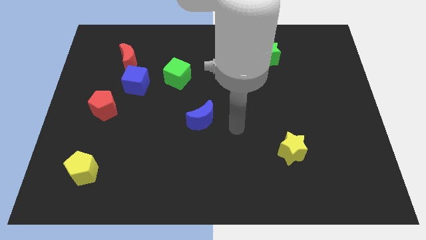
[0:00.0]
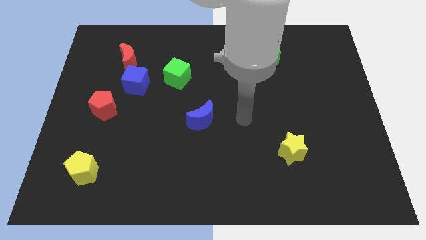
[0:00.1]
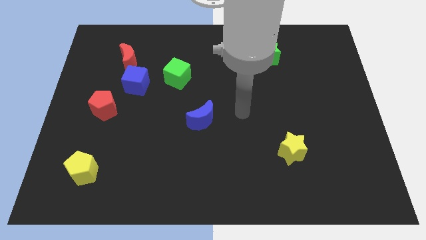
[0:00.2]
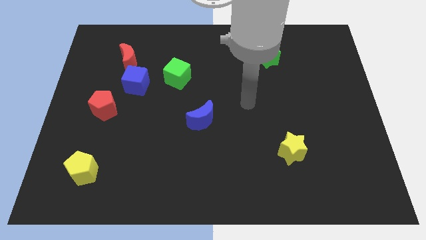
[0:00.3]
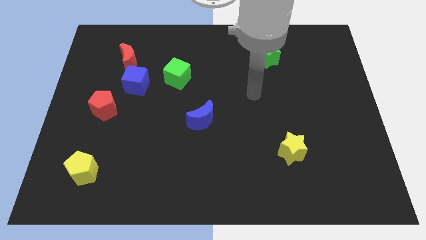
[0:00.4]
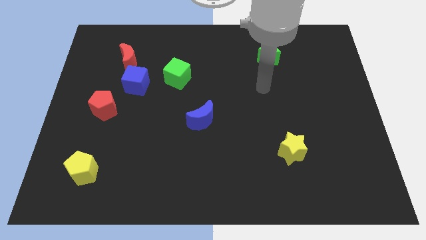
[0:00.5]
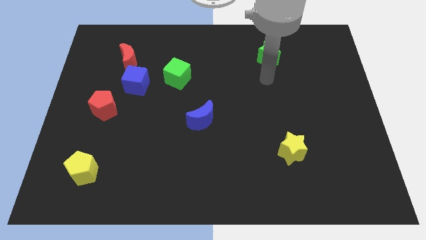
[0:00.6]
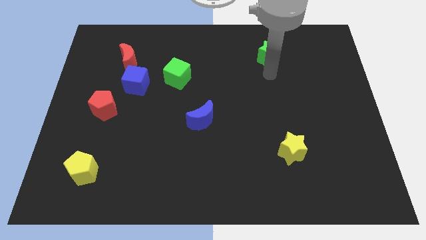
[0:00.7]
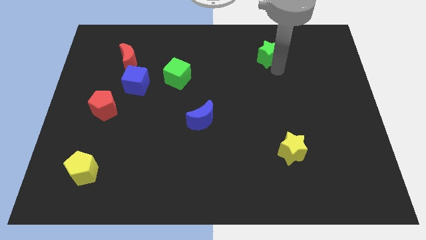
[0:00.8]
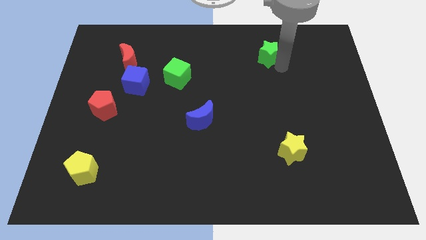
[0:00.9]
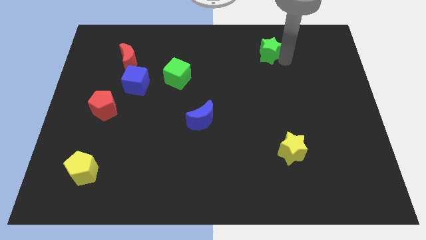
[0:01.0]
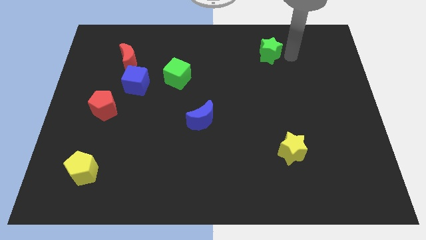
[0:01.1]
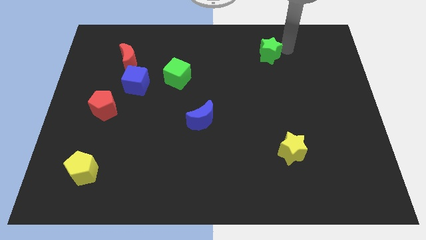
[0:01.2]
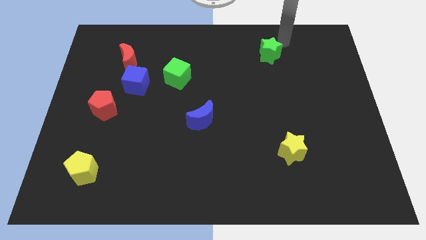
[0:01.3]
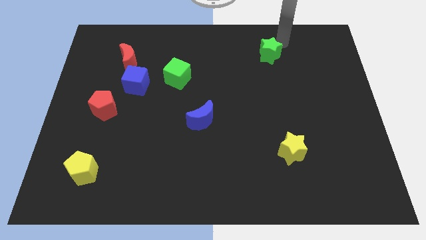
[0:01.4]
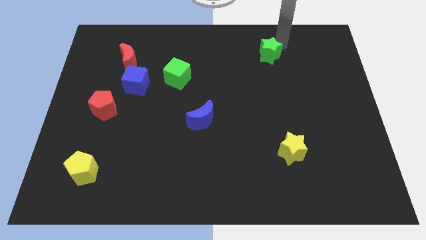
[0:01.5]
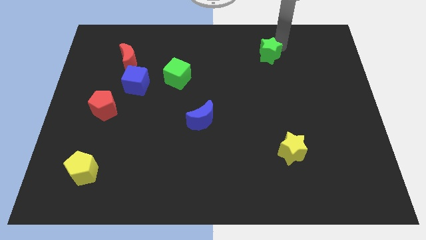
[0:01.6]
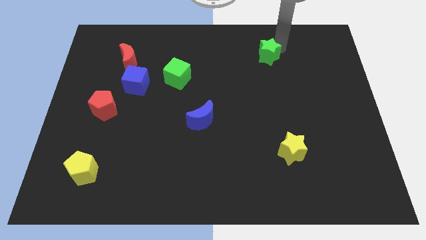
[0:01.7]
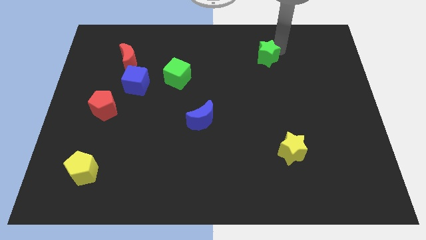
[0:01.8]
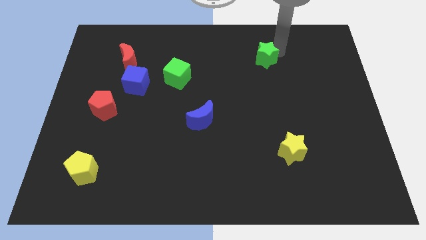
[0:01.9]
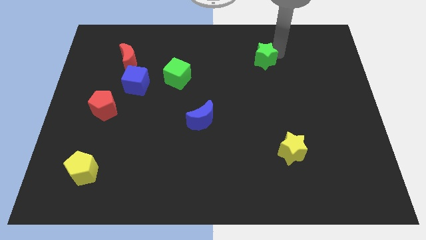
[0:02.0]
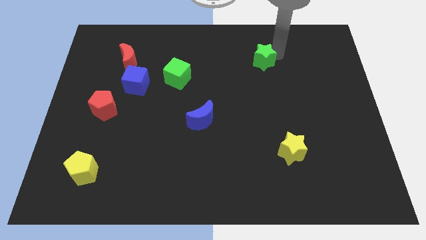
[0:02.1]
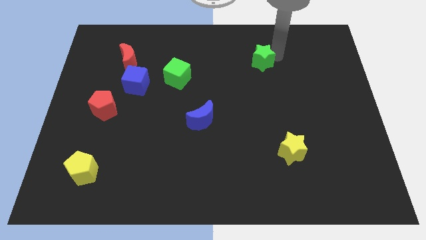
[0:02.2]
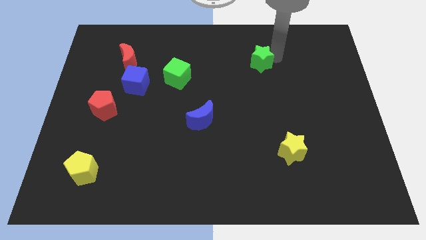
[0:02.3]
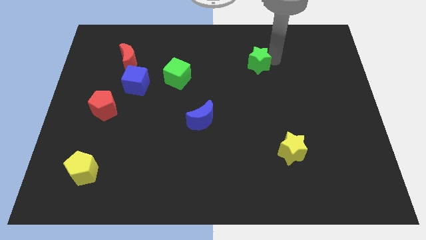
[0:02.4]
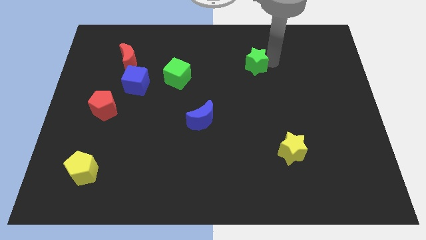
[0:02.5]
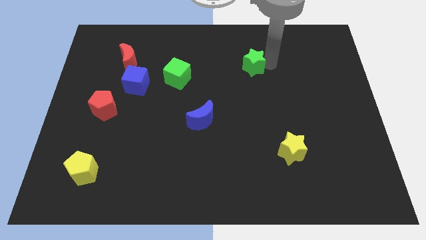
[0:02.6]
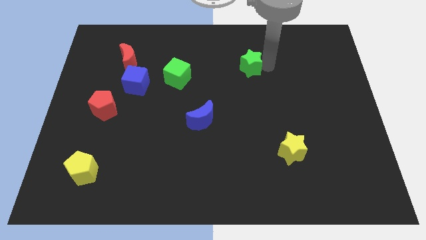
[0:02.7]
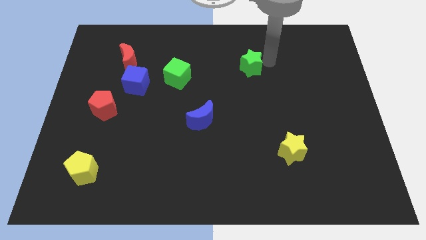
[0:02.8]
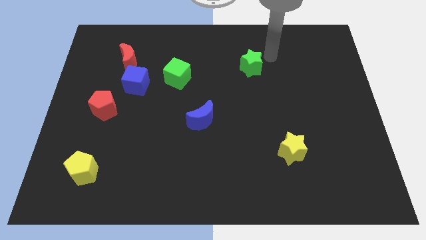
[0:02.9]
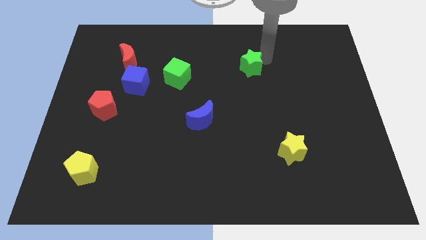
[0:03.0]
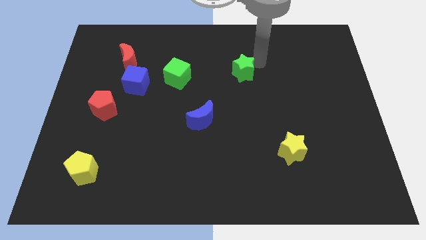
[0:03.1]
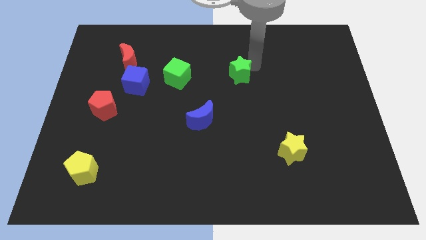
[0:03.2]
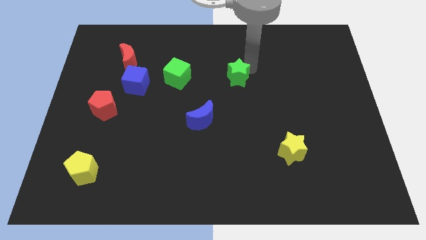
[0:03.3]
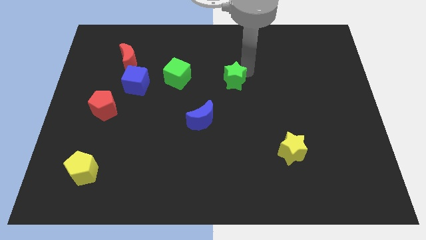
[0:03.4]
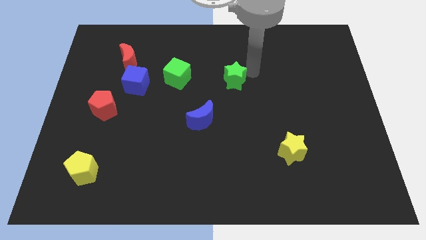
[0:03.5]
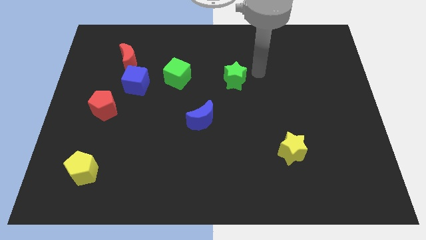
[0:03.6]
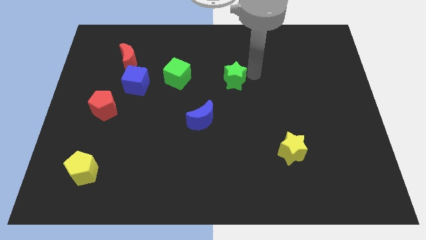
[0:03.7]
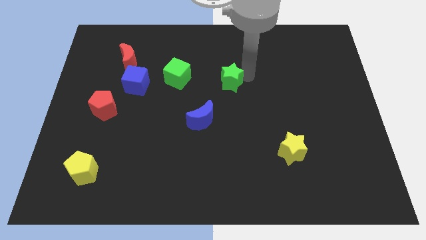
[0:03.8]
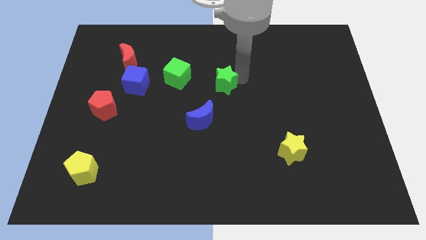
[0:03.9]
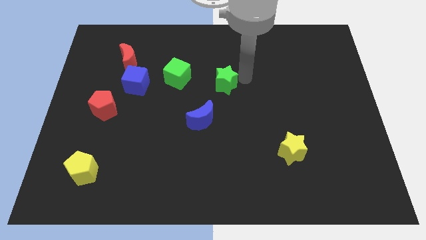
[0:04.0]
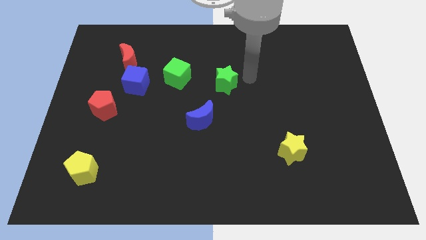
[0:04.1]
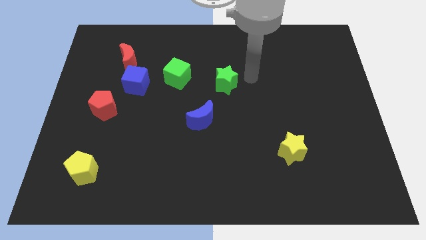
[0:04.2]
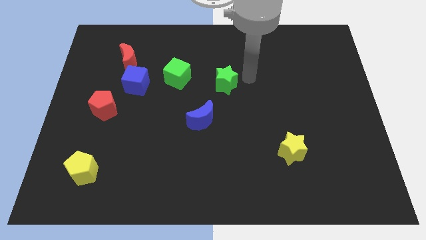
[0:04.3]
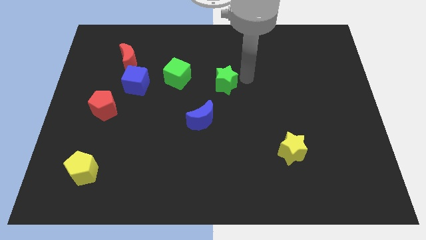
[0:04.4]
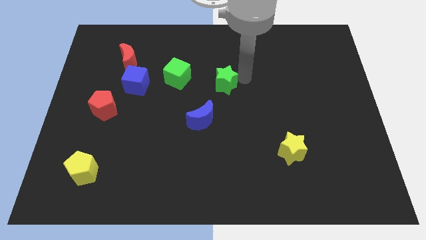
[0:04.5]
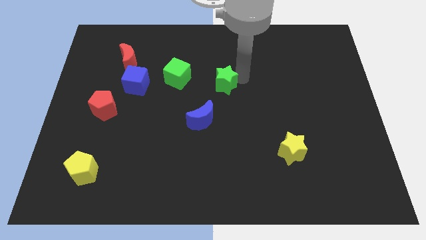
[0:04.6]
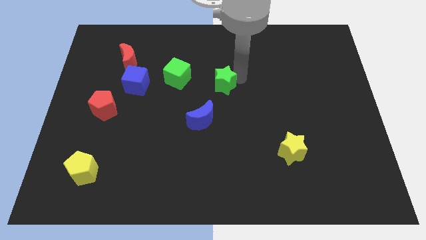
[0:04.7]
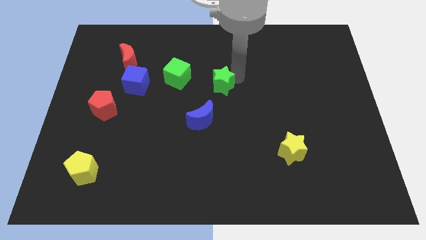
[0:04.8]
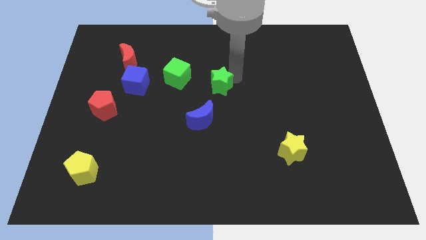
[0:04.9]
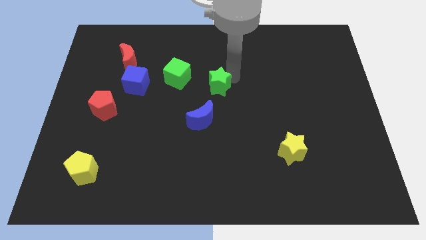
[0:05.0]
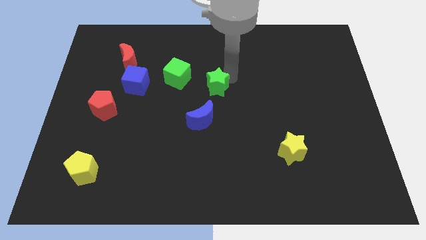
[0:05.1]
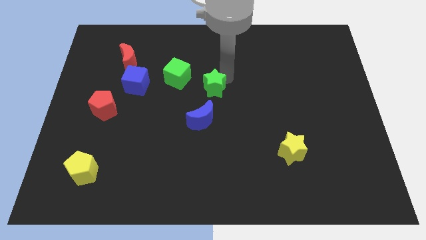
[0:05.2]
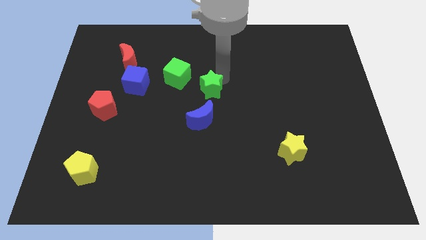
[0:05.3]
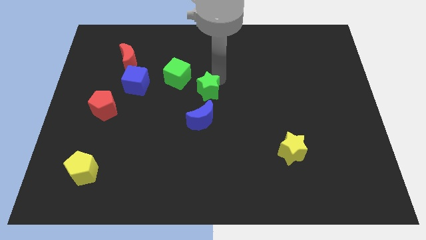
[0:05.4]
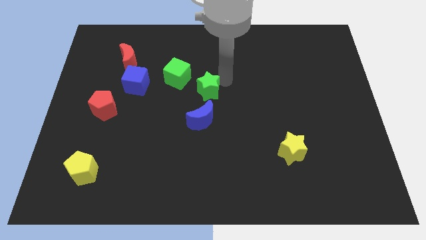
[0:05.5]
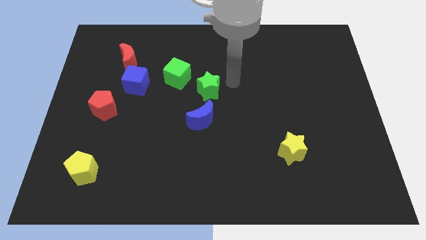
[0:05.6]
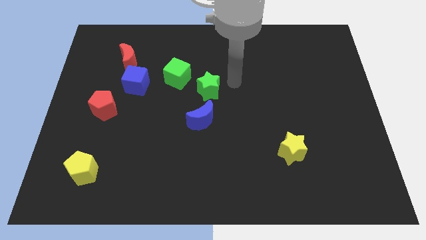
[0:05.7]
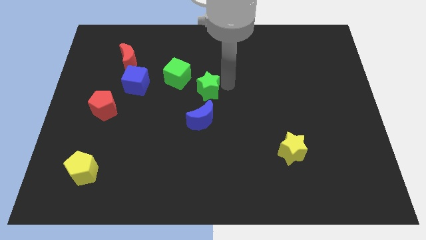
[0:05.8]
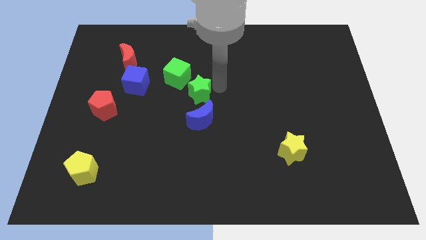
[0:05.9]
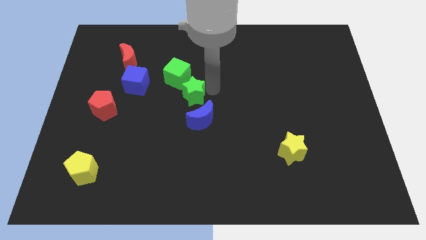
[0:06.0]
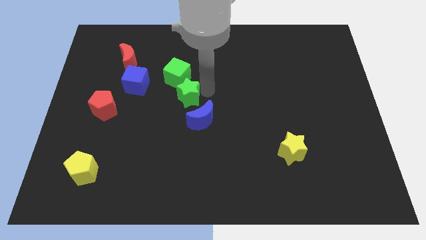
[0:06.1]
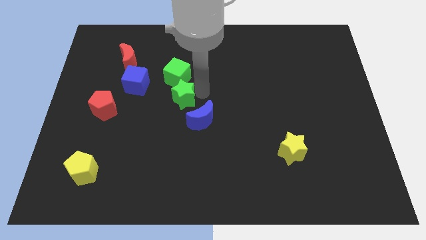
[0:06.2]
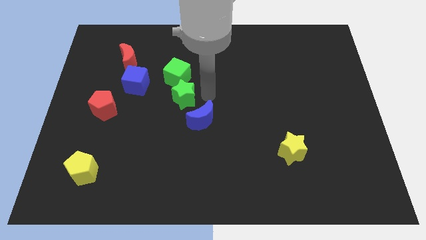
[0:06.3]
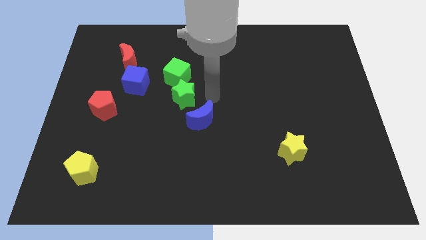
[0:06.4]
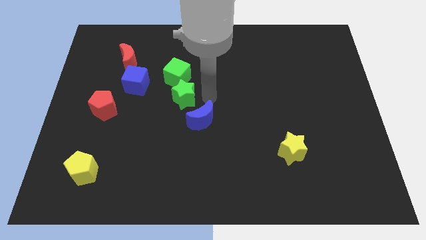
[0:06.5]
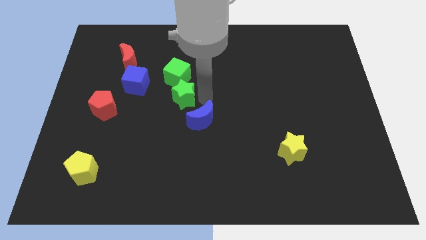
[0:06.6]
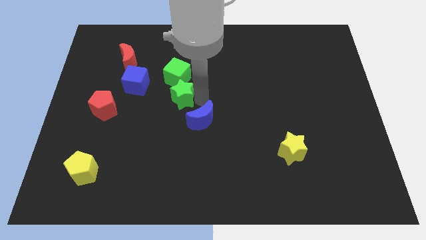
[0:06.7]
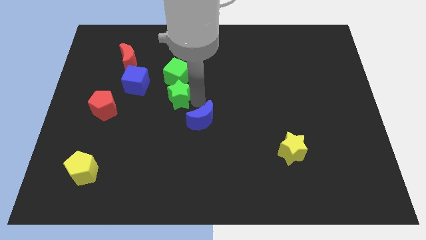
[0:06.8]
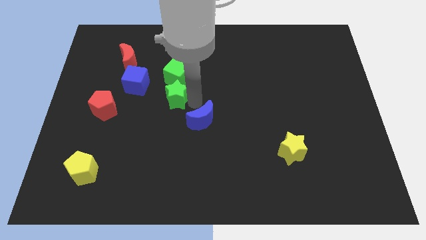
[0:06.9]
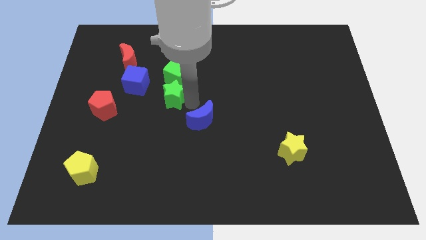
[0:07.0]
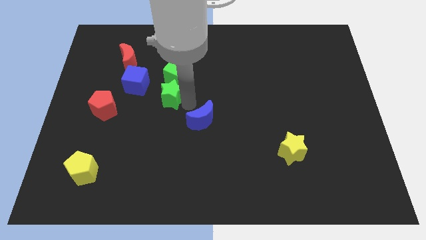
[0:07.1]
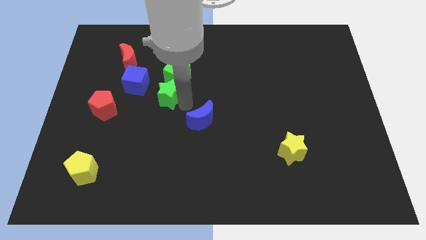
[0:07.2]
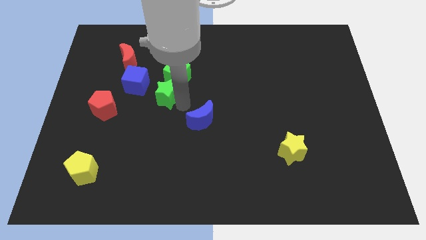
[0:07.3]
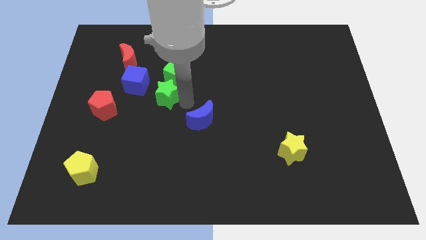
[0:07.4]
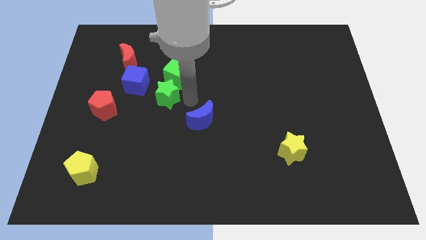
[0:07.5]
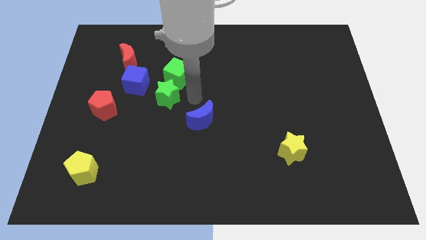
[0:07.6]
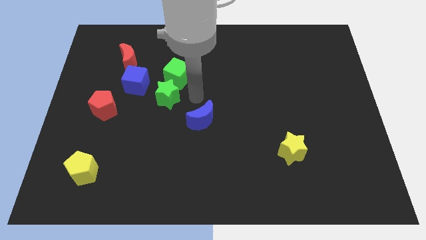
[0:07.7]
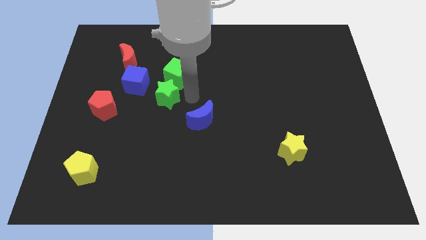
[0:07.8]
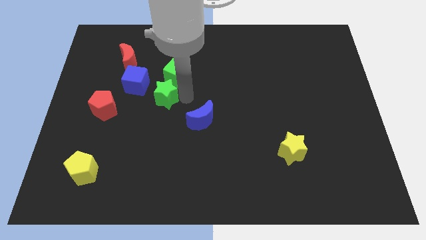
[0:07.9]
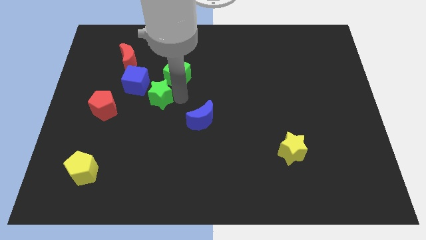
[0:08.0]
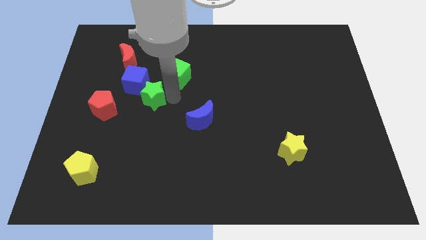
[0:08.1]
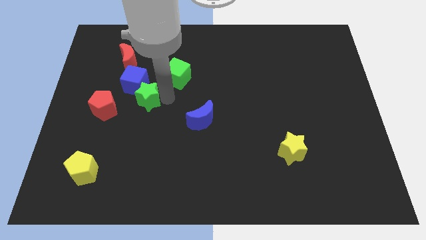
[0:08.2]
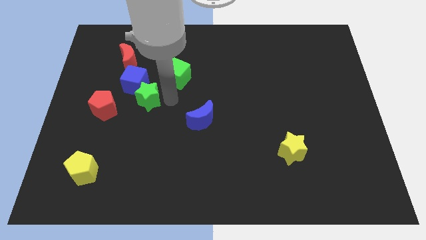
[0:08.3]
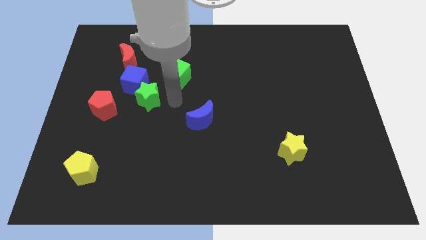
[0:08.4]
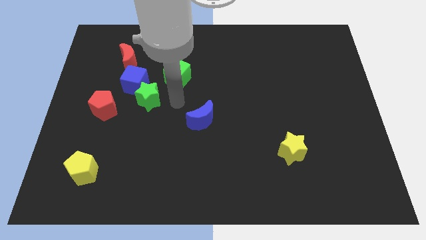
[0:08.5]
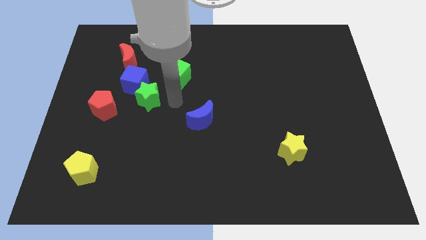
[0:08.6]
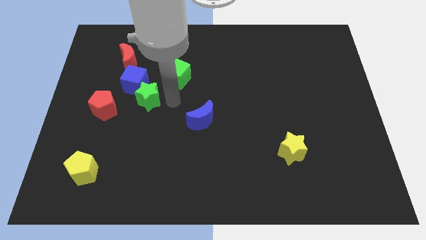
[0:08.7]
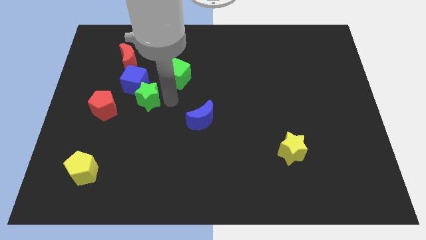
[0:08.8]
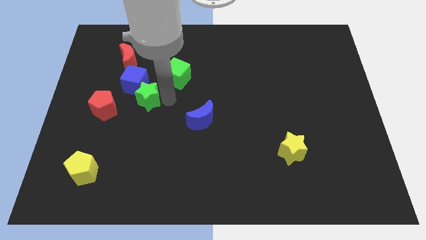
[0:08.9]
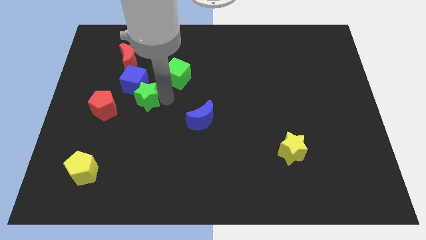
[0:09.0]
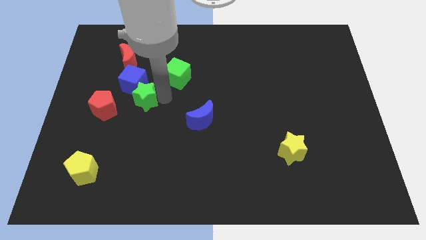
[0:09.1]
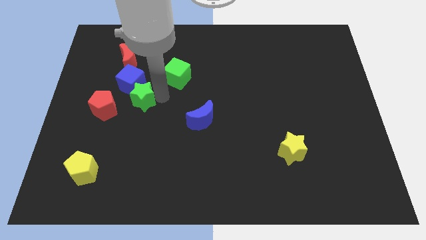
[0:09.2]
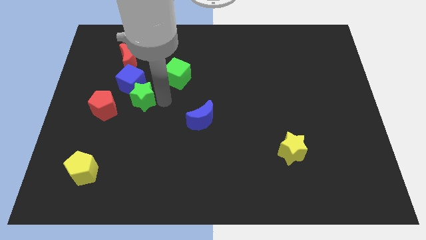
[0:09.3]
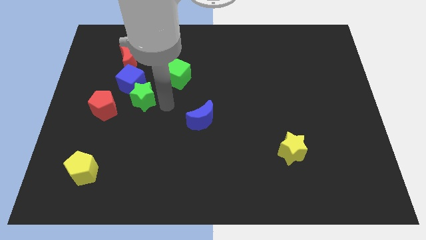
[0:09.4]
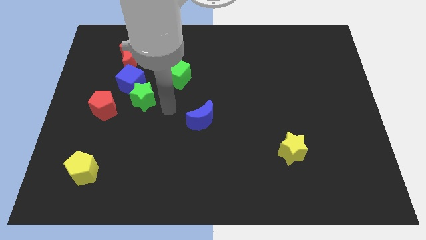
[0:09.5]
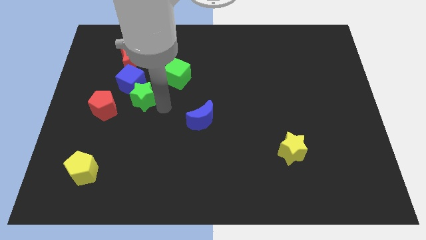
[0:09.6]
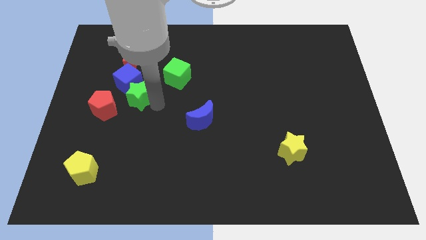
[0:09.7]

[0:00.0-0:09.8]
put the green star below the red moon
